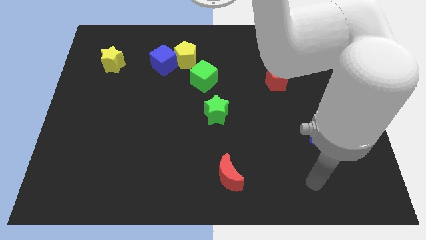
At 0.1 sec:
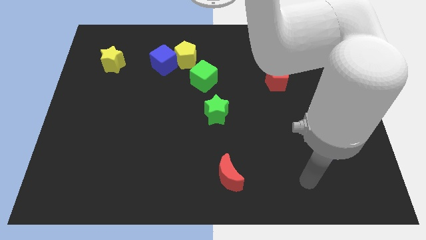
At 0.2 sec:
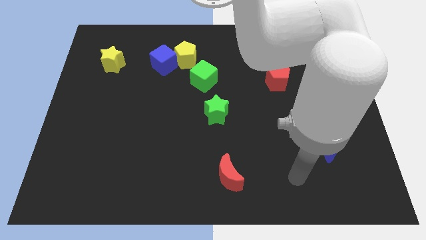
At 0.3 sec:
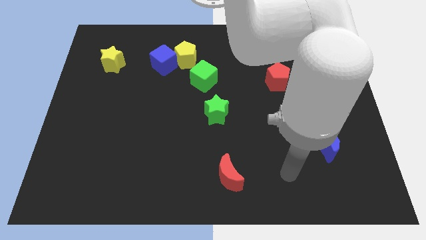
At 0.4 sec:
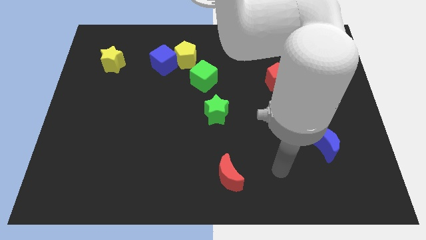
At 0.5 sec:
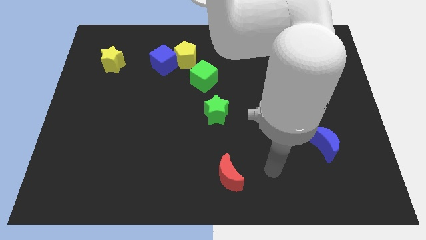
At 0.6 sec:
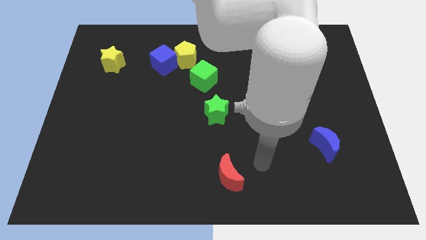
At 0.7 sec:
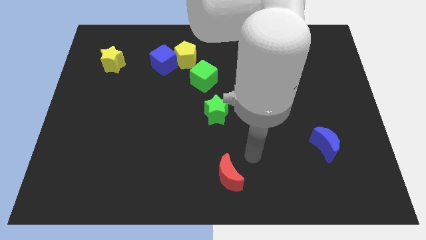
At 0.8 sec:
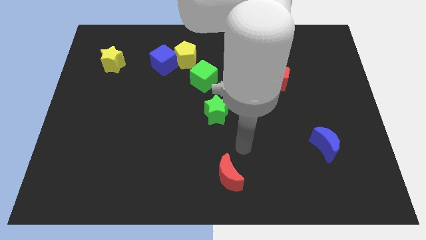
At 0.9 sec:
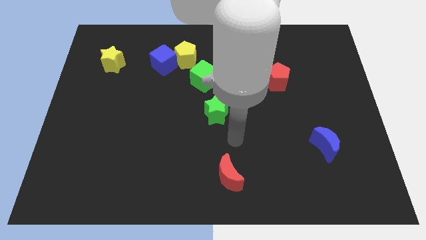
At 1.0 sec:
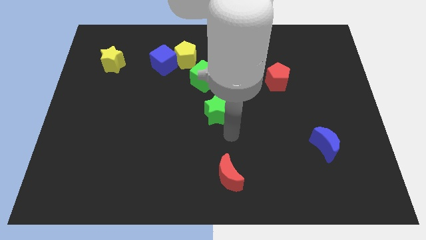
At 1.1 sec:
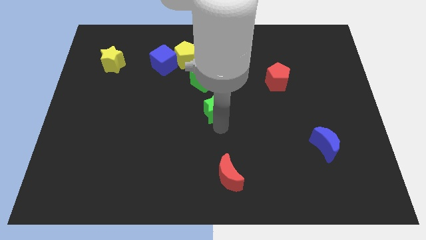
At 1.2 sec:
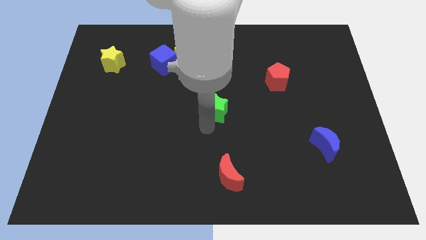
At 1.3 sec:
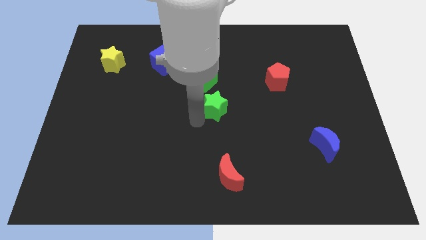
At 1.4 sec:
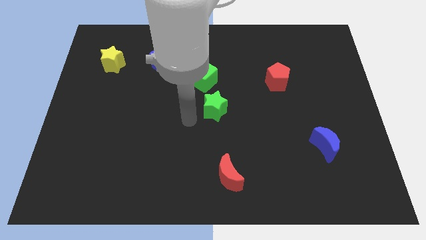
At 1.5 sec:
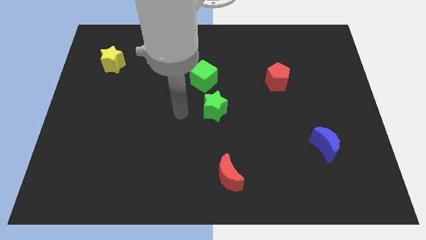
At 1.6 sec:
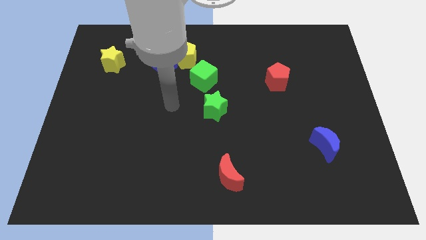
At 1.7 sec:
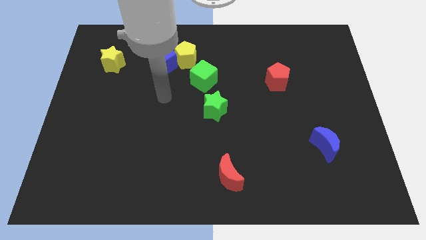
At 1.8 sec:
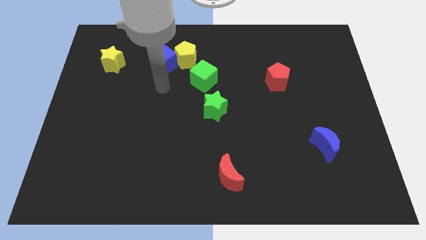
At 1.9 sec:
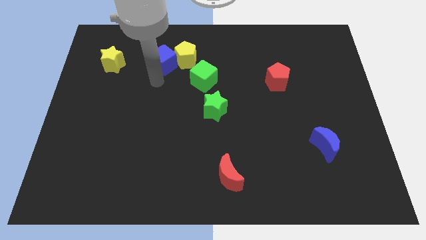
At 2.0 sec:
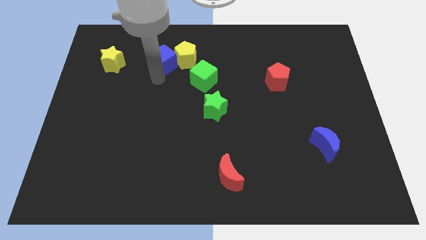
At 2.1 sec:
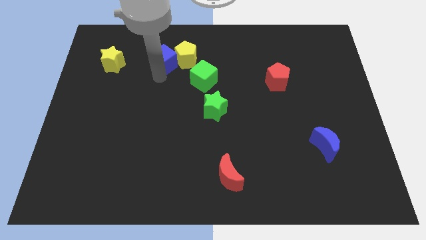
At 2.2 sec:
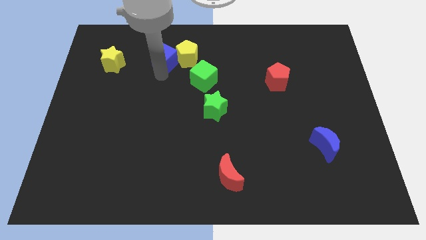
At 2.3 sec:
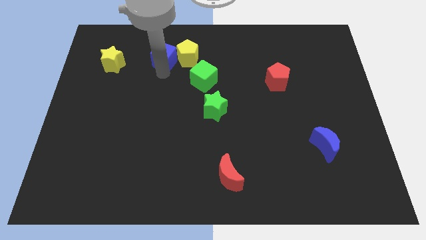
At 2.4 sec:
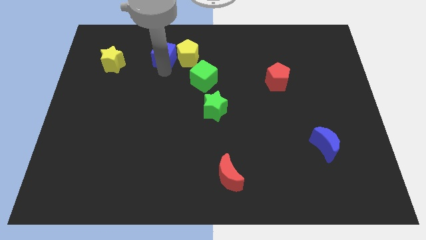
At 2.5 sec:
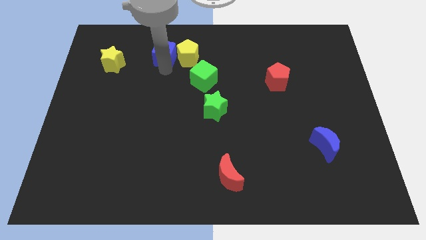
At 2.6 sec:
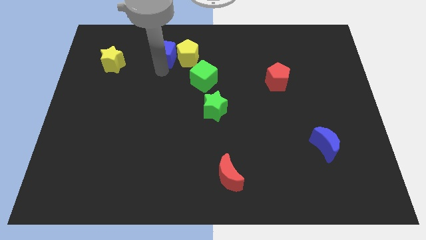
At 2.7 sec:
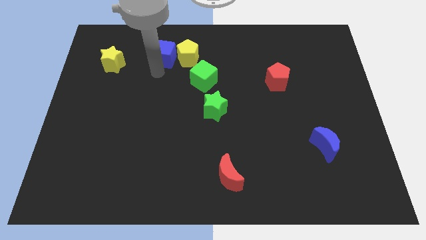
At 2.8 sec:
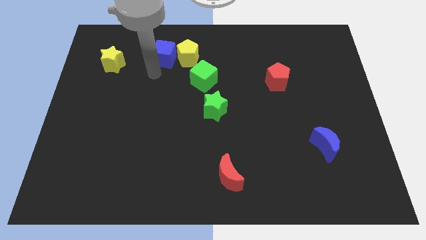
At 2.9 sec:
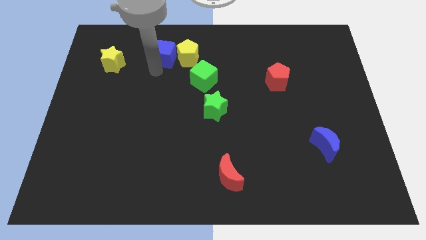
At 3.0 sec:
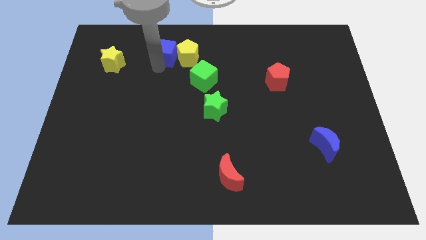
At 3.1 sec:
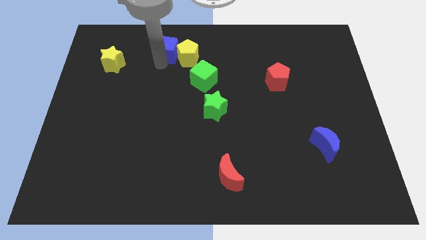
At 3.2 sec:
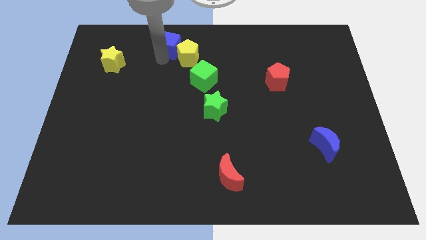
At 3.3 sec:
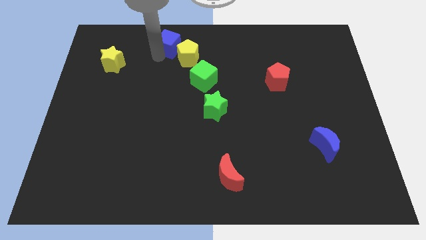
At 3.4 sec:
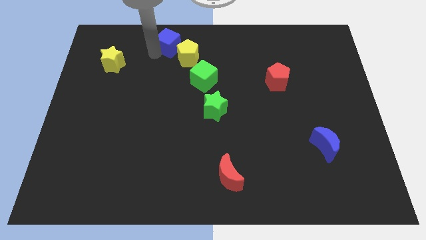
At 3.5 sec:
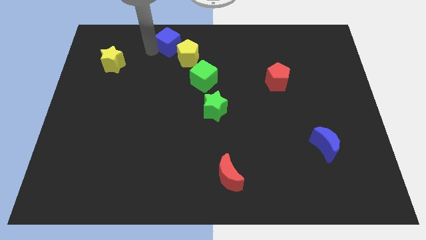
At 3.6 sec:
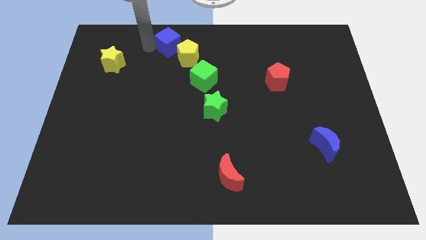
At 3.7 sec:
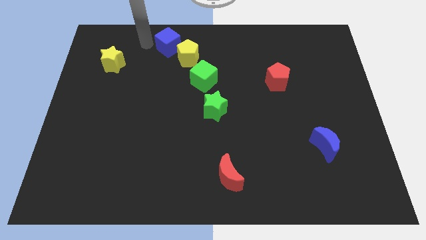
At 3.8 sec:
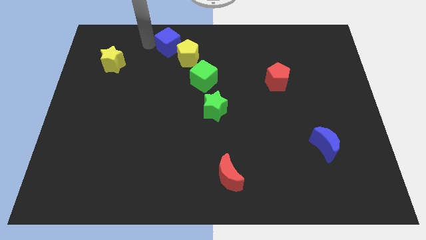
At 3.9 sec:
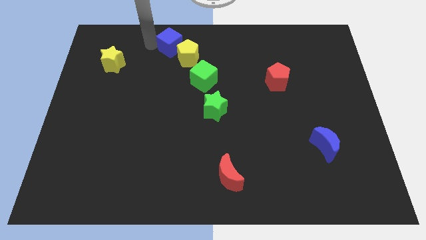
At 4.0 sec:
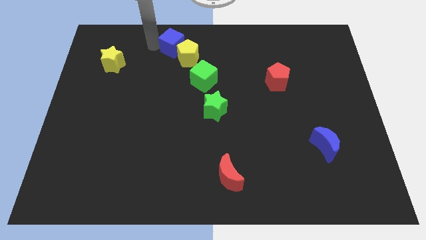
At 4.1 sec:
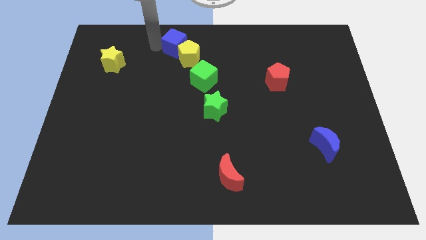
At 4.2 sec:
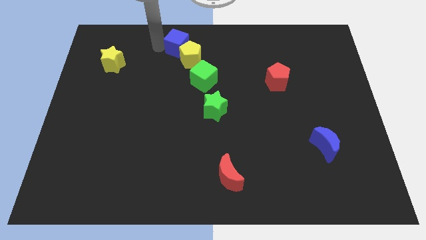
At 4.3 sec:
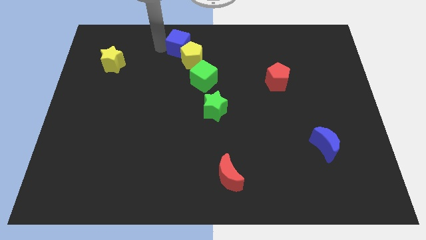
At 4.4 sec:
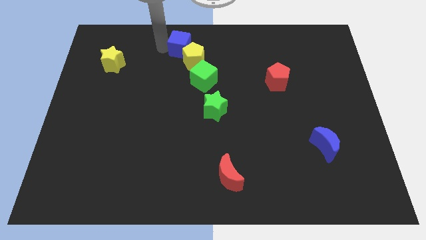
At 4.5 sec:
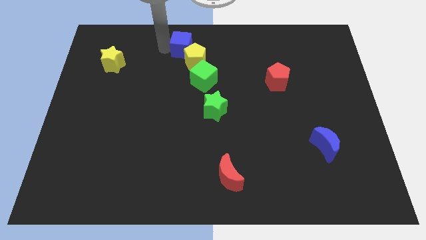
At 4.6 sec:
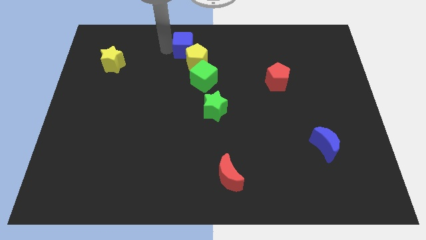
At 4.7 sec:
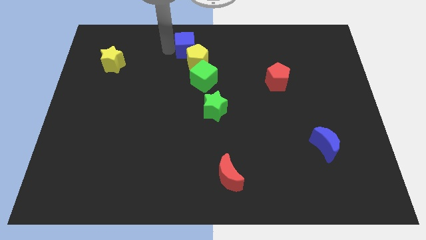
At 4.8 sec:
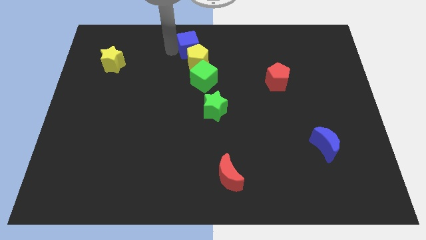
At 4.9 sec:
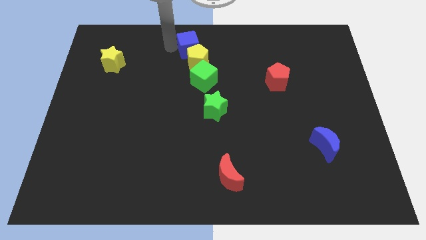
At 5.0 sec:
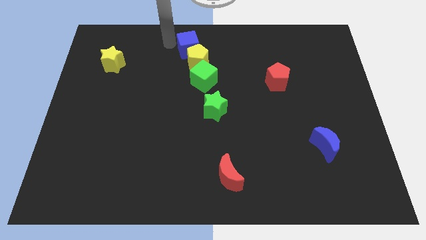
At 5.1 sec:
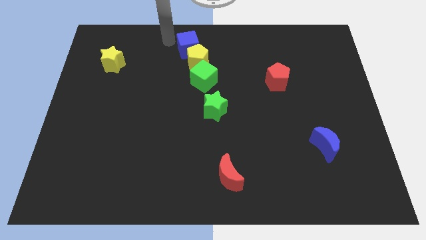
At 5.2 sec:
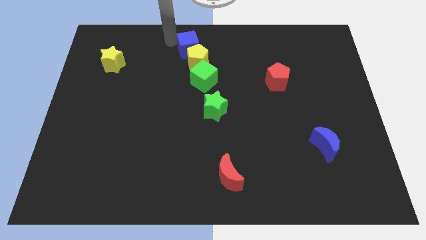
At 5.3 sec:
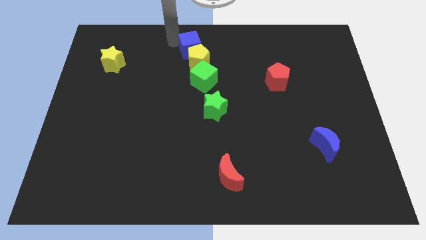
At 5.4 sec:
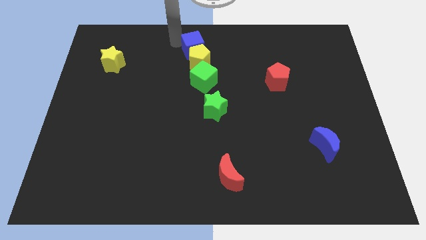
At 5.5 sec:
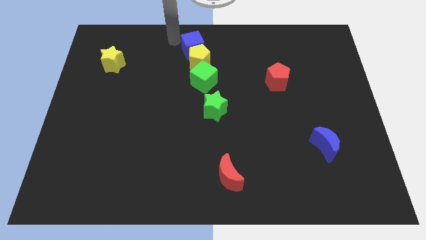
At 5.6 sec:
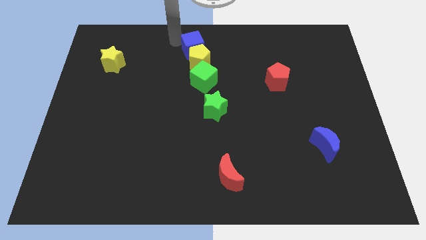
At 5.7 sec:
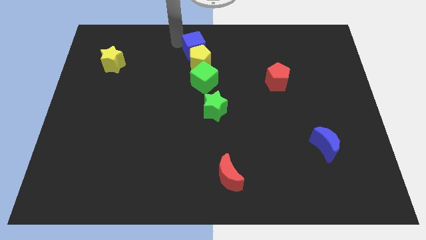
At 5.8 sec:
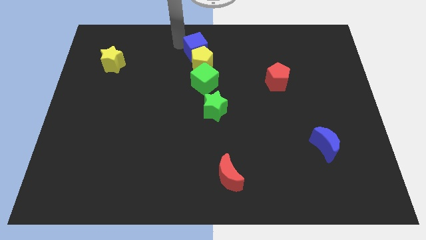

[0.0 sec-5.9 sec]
slide the blue cube a little right

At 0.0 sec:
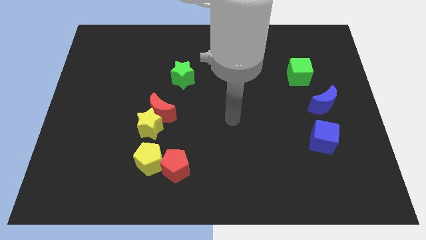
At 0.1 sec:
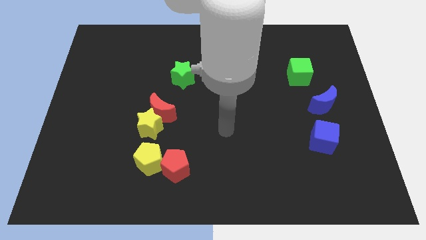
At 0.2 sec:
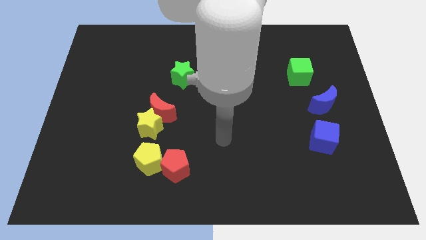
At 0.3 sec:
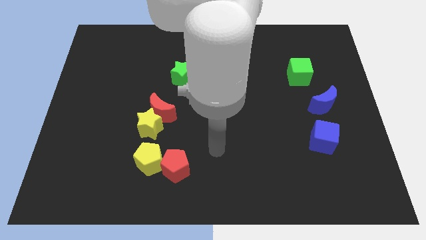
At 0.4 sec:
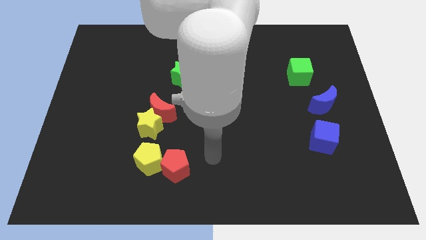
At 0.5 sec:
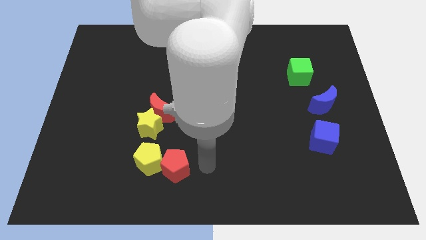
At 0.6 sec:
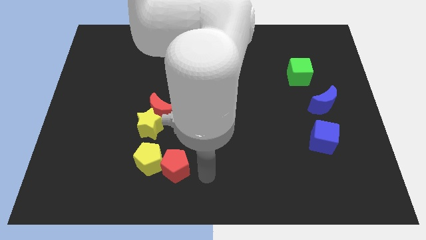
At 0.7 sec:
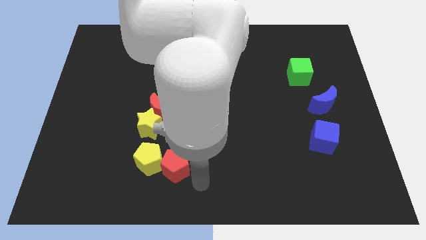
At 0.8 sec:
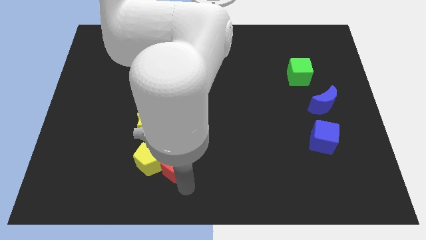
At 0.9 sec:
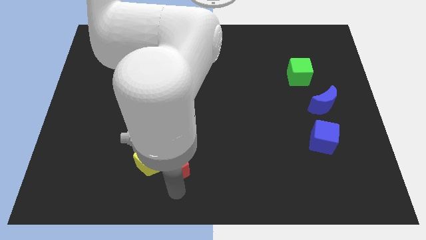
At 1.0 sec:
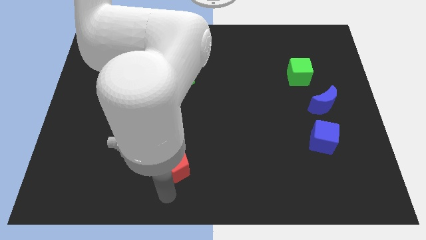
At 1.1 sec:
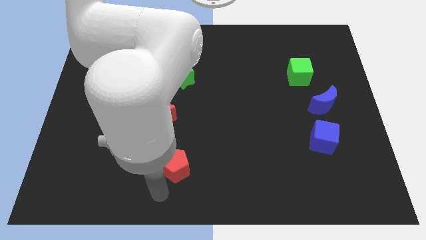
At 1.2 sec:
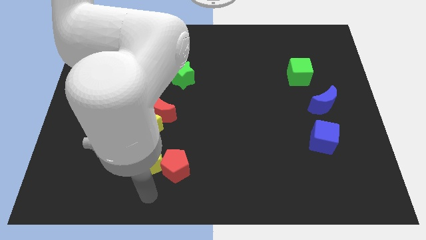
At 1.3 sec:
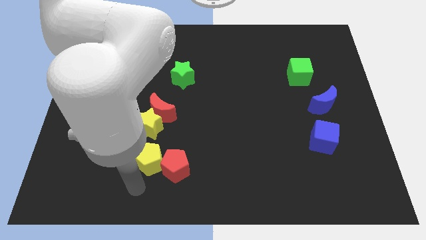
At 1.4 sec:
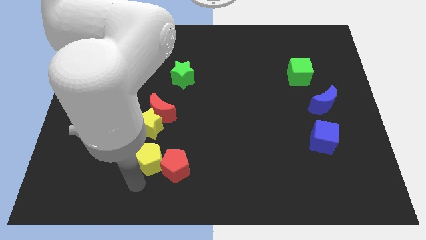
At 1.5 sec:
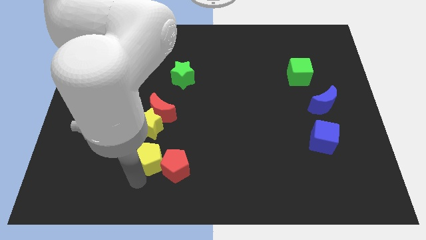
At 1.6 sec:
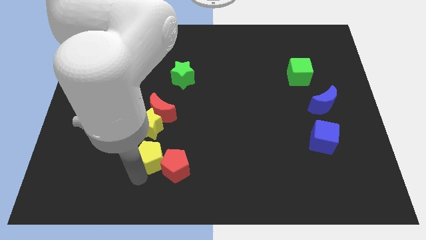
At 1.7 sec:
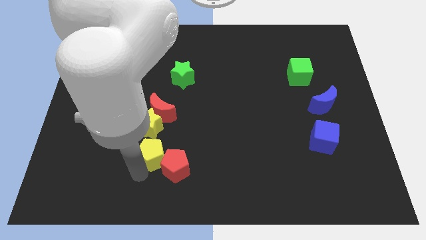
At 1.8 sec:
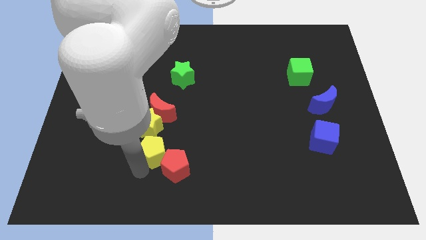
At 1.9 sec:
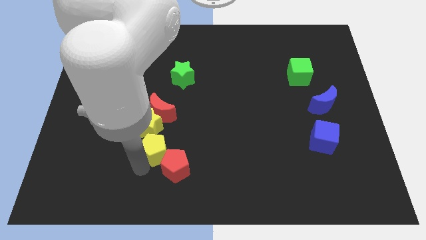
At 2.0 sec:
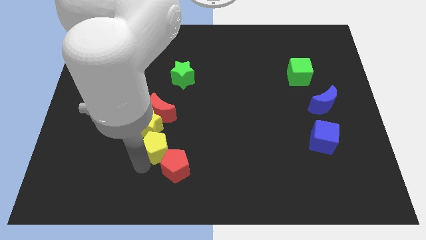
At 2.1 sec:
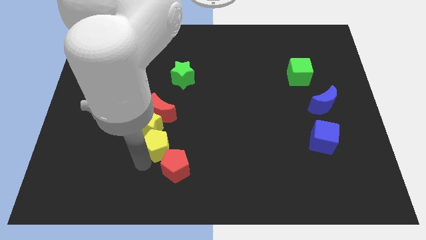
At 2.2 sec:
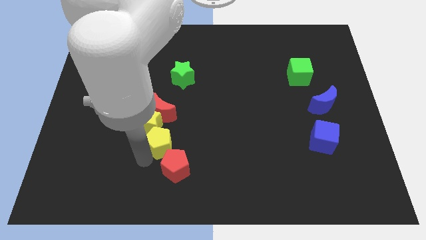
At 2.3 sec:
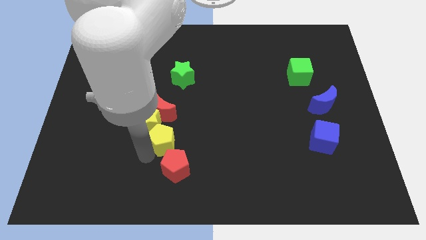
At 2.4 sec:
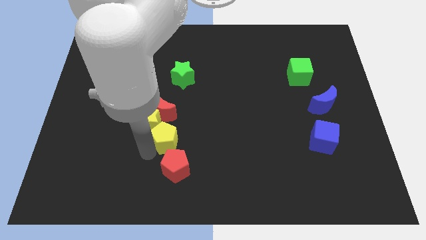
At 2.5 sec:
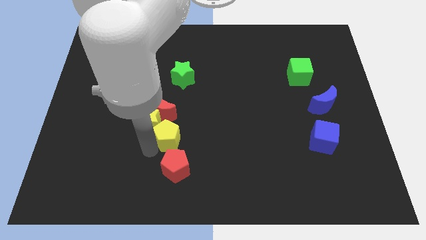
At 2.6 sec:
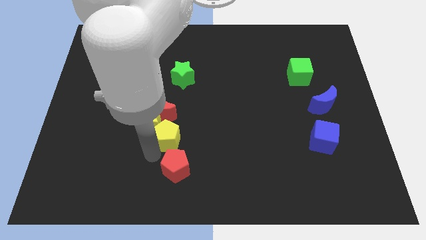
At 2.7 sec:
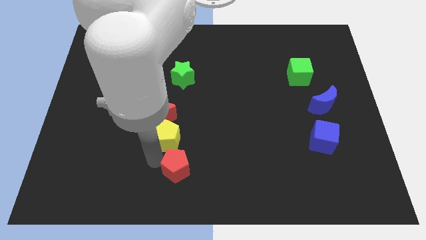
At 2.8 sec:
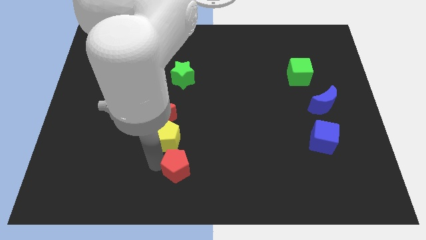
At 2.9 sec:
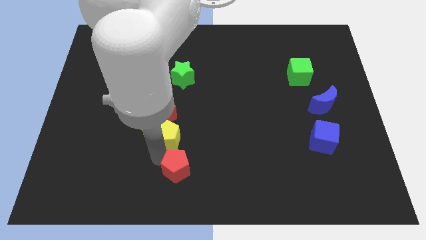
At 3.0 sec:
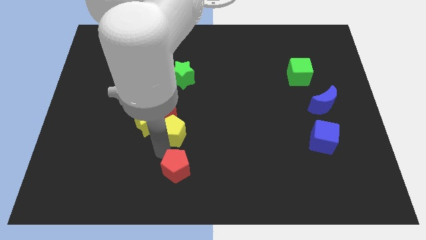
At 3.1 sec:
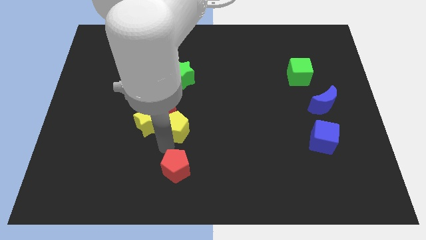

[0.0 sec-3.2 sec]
push the yellow pentagon up a little
